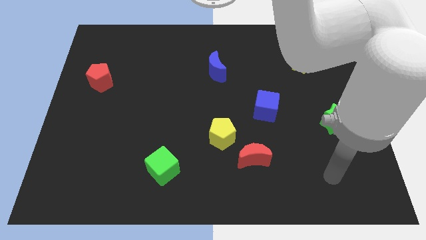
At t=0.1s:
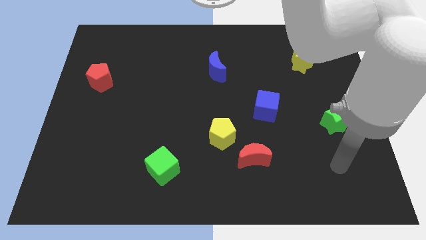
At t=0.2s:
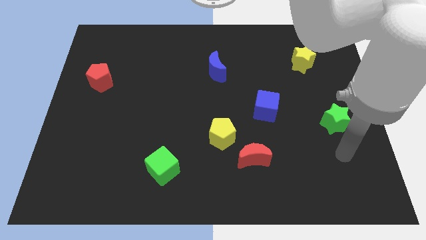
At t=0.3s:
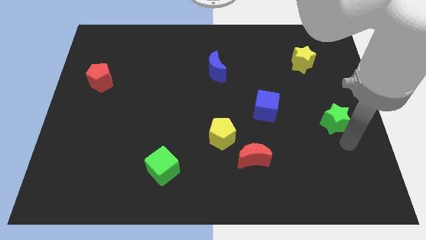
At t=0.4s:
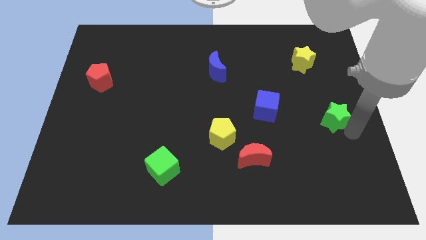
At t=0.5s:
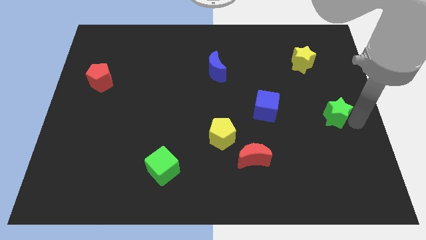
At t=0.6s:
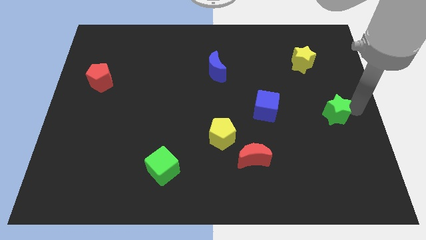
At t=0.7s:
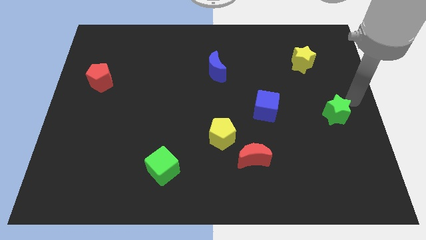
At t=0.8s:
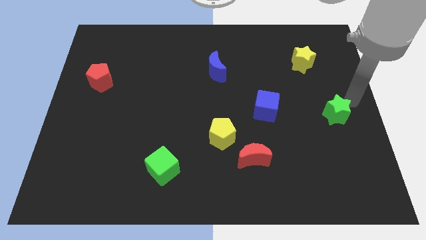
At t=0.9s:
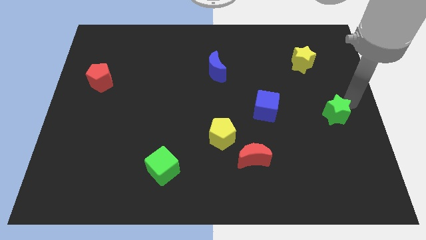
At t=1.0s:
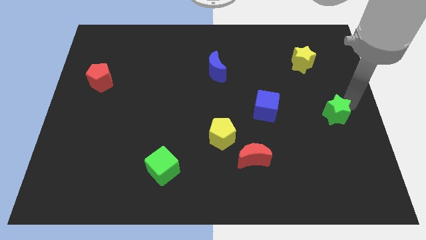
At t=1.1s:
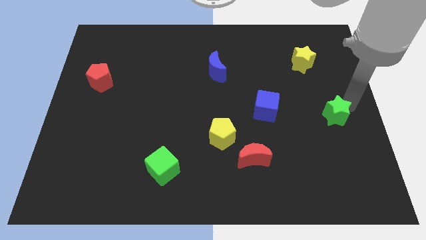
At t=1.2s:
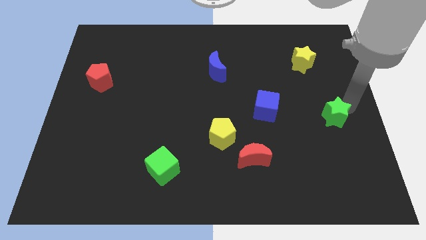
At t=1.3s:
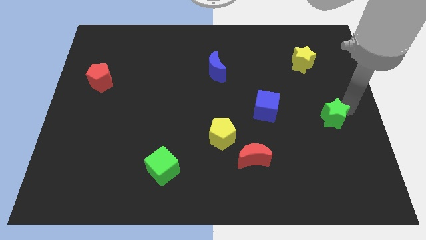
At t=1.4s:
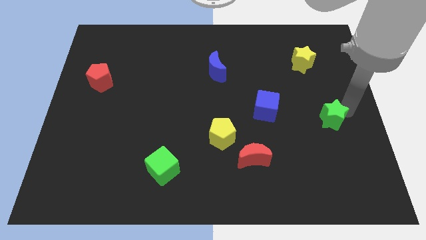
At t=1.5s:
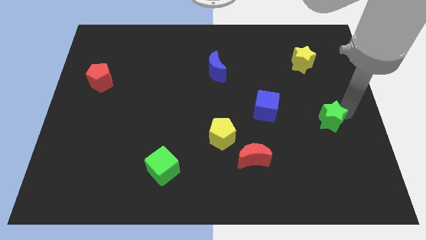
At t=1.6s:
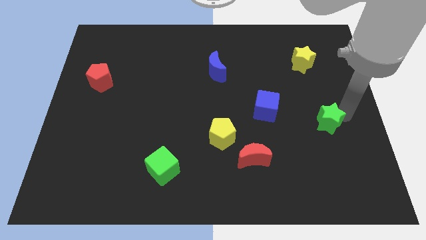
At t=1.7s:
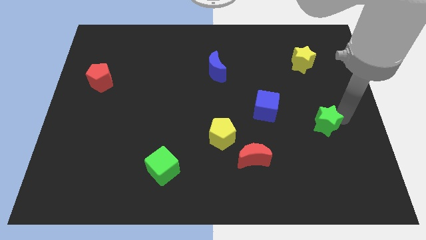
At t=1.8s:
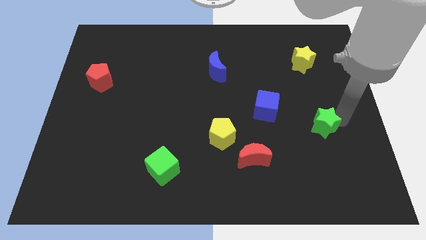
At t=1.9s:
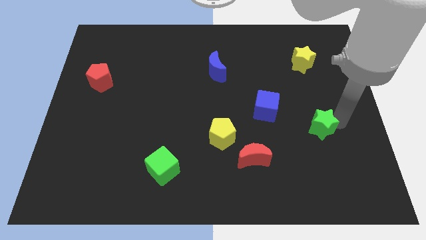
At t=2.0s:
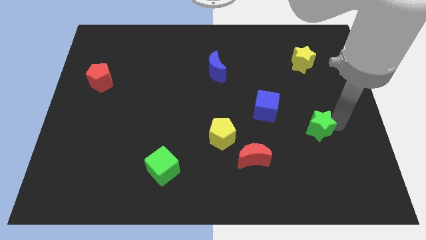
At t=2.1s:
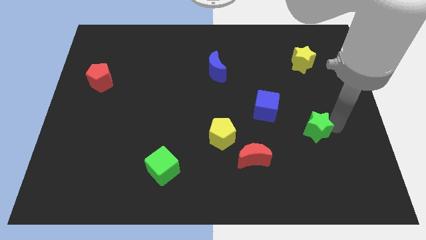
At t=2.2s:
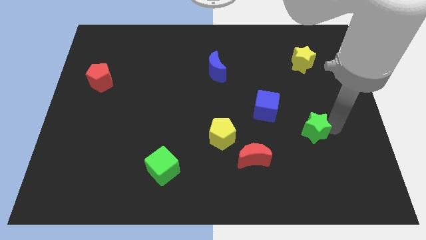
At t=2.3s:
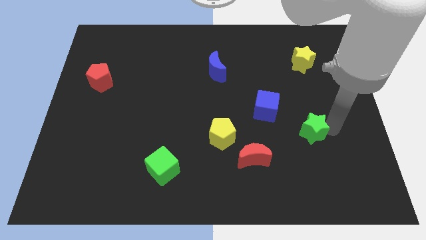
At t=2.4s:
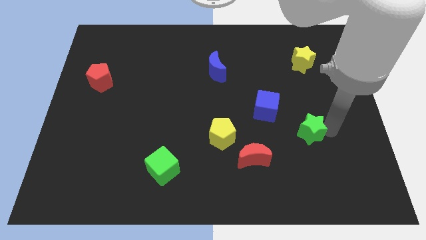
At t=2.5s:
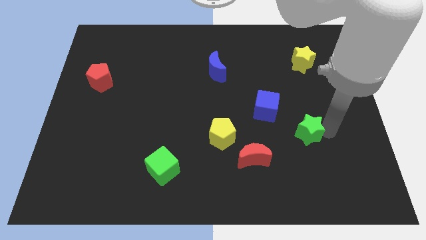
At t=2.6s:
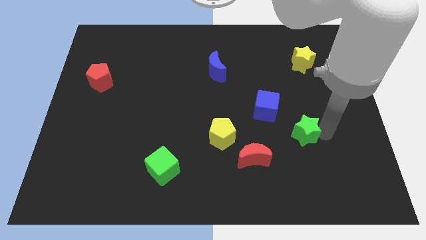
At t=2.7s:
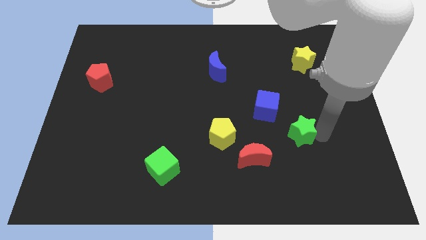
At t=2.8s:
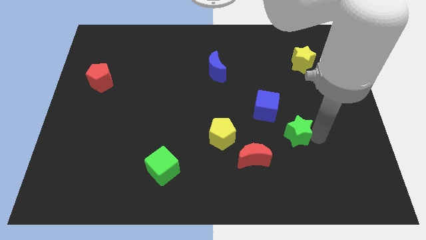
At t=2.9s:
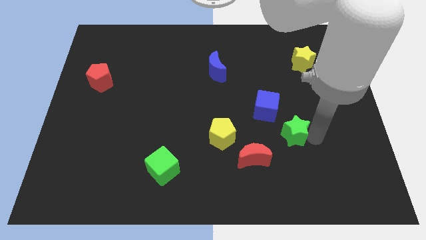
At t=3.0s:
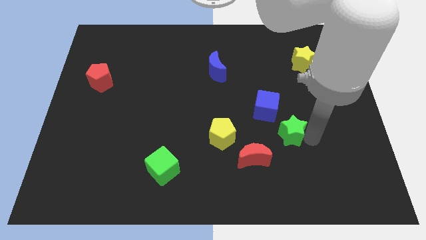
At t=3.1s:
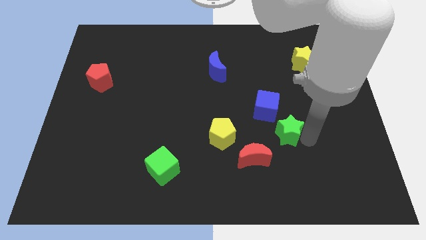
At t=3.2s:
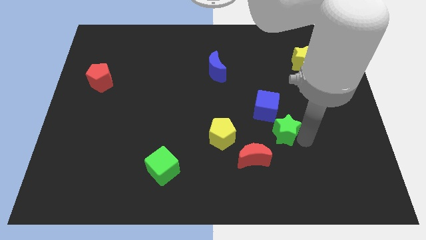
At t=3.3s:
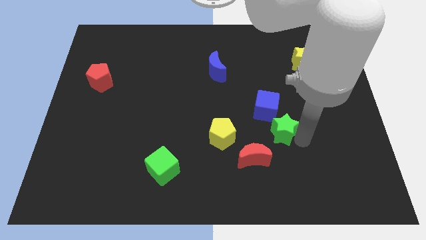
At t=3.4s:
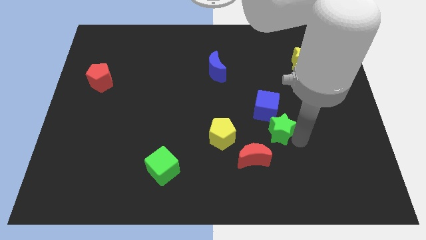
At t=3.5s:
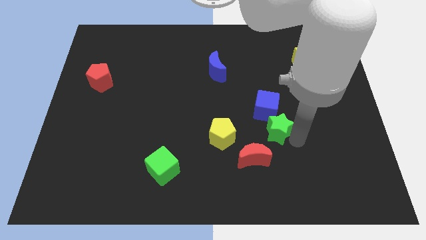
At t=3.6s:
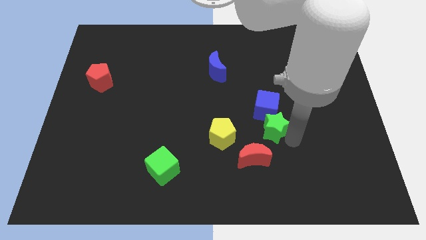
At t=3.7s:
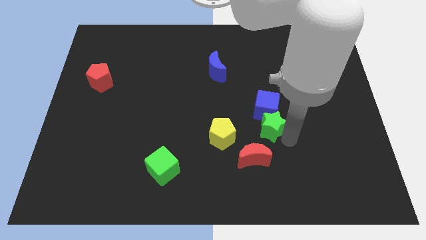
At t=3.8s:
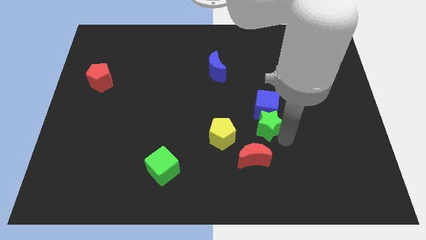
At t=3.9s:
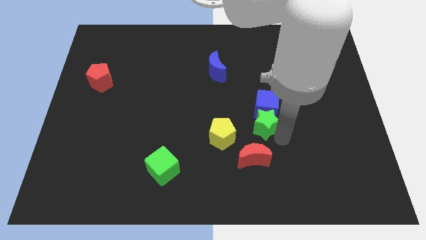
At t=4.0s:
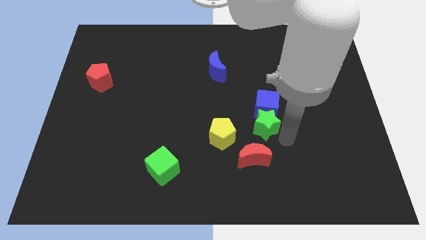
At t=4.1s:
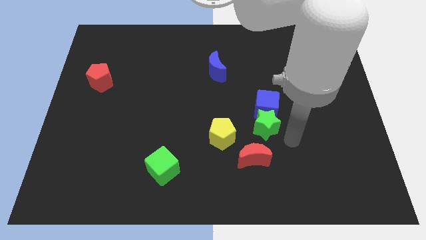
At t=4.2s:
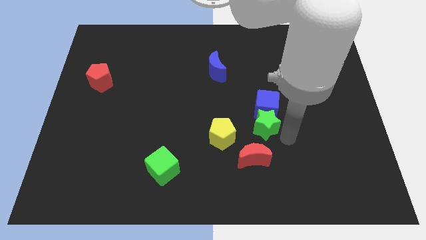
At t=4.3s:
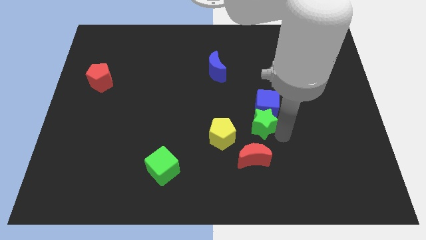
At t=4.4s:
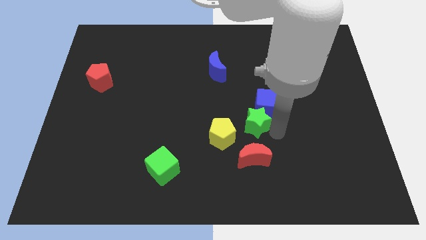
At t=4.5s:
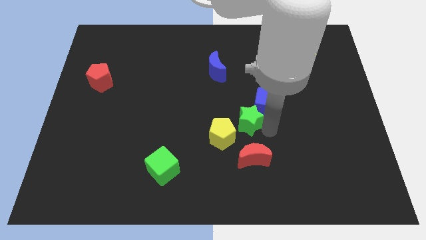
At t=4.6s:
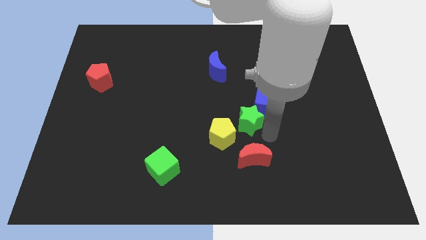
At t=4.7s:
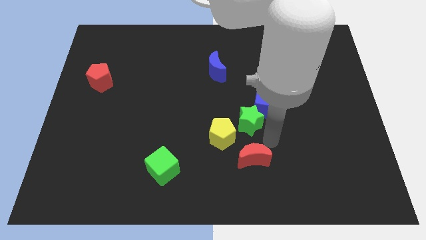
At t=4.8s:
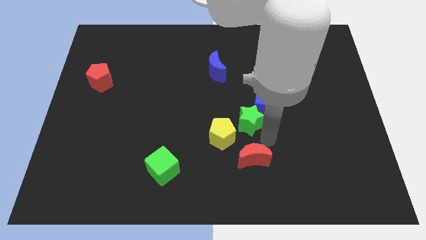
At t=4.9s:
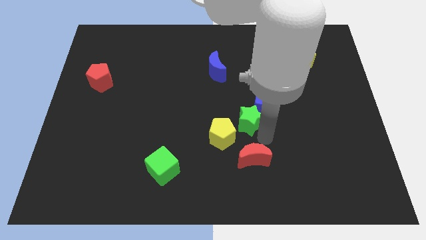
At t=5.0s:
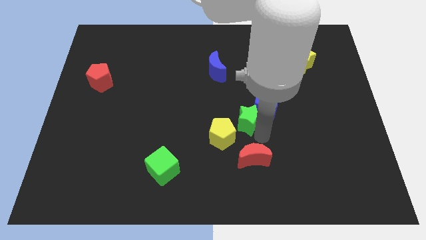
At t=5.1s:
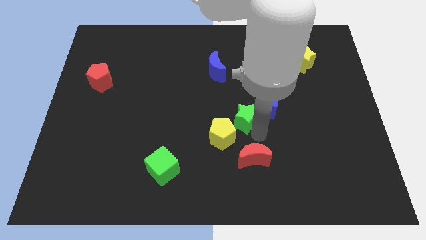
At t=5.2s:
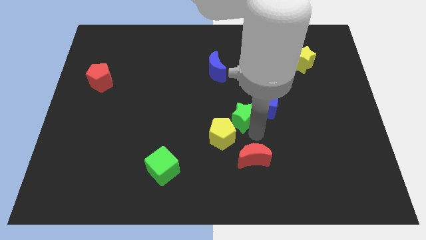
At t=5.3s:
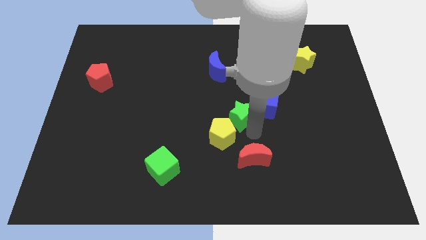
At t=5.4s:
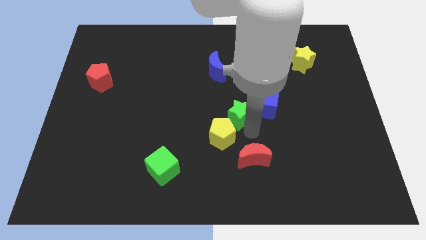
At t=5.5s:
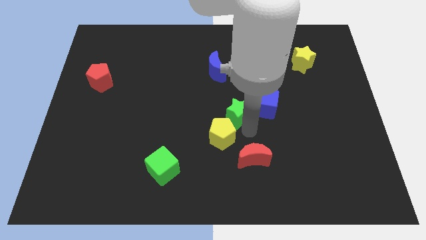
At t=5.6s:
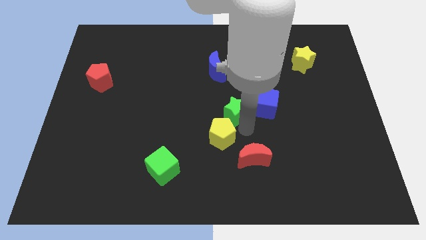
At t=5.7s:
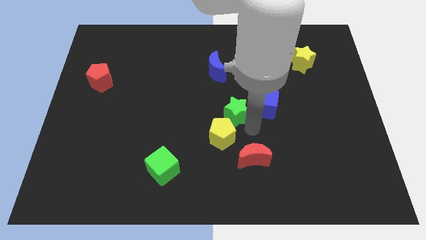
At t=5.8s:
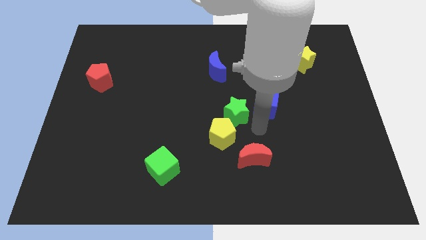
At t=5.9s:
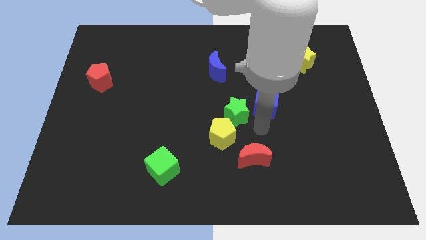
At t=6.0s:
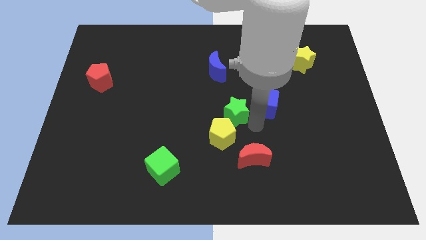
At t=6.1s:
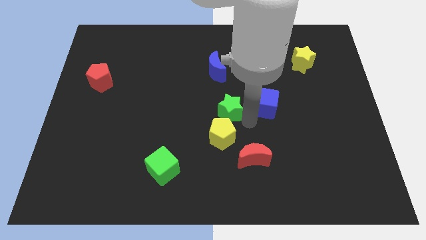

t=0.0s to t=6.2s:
slide the green star to the bottom of the blue moon

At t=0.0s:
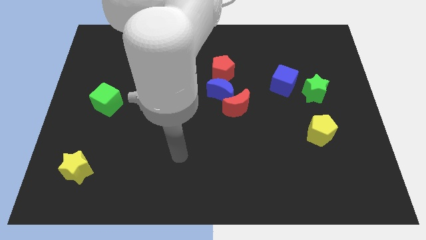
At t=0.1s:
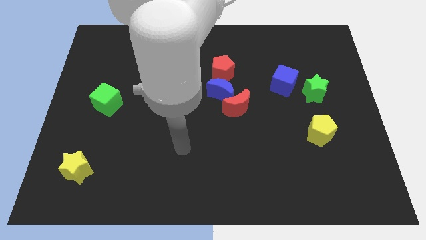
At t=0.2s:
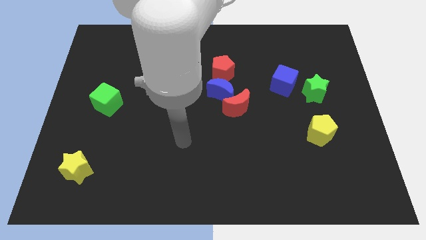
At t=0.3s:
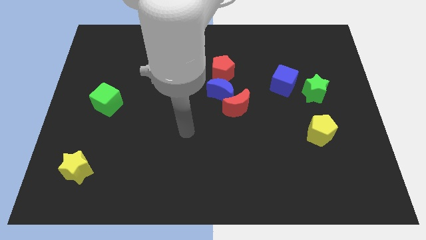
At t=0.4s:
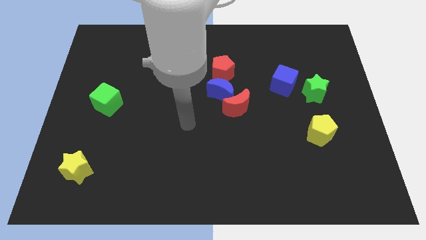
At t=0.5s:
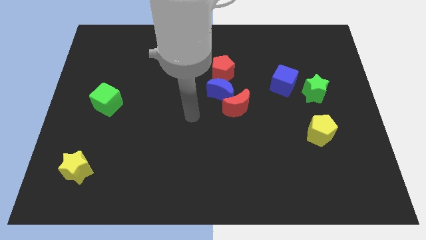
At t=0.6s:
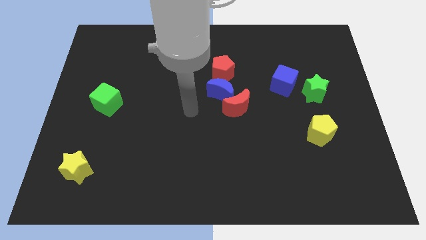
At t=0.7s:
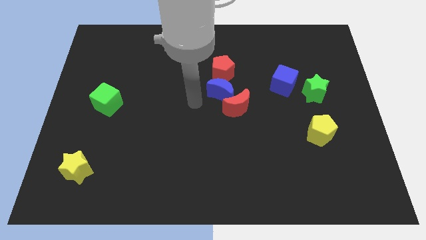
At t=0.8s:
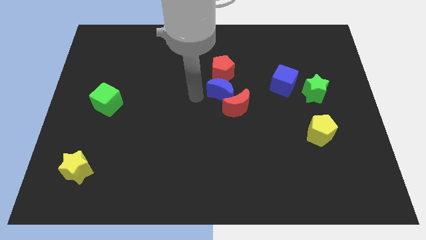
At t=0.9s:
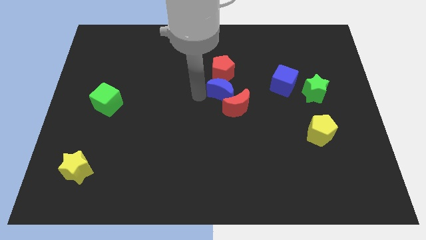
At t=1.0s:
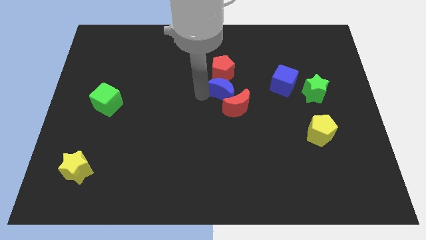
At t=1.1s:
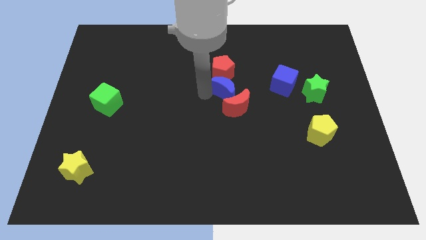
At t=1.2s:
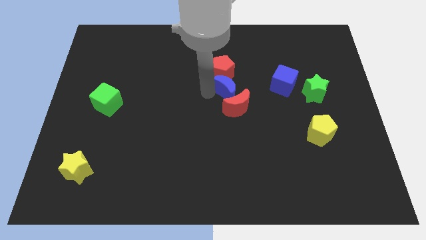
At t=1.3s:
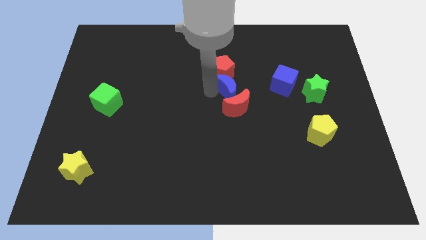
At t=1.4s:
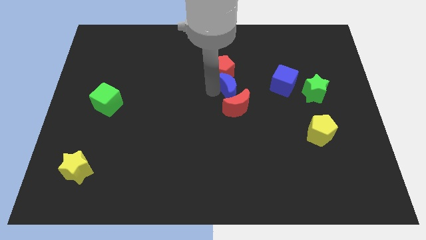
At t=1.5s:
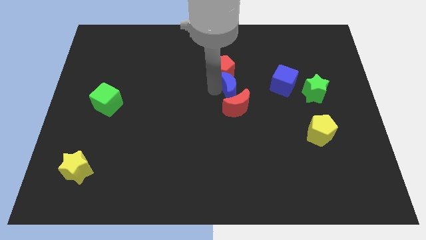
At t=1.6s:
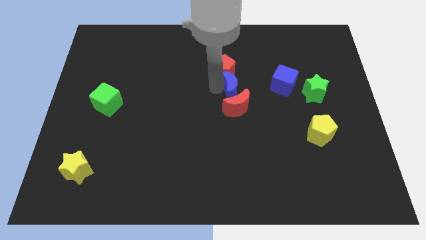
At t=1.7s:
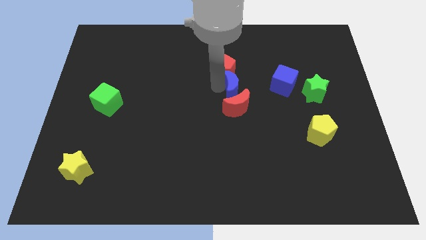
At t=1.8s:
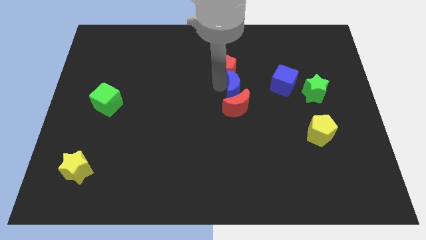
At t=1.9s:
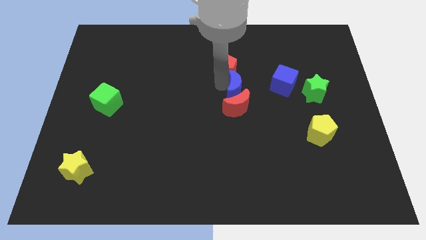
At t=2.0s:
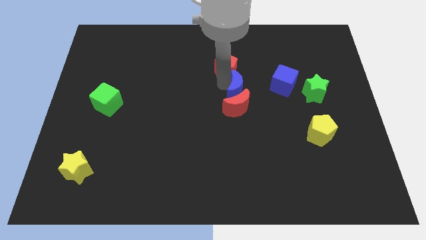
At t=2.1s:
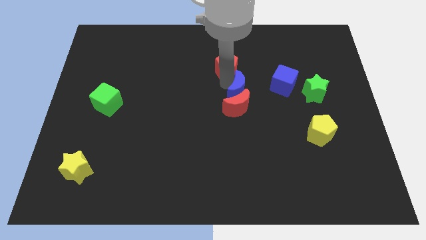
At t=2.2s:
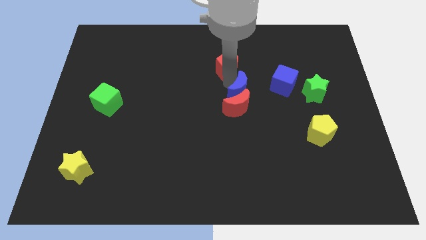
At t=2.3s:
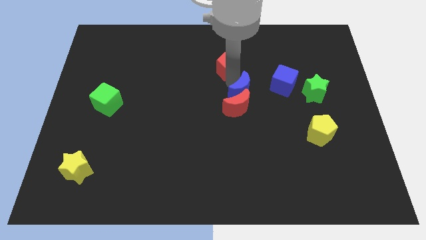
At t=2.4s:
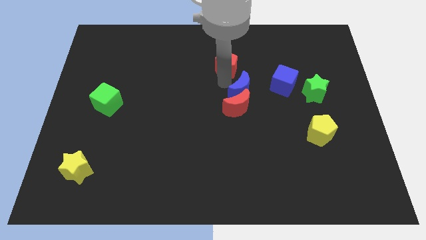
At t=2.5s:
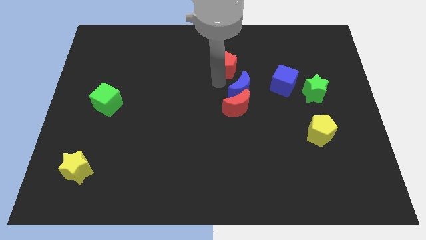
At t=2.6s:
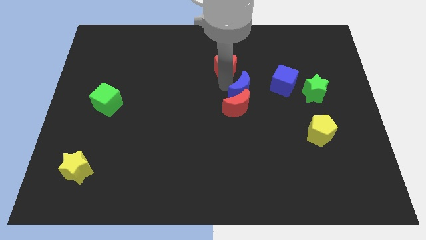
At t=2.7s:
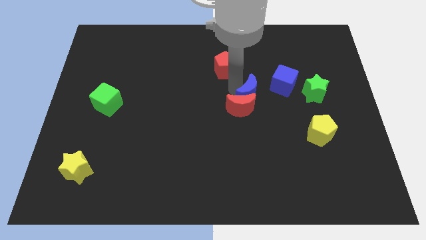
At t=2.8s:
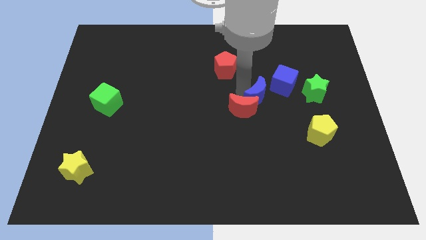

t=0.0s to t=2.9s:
slide the blue moon right of the red moon
